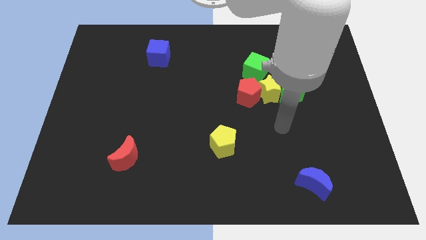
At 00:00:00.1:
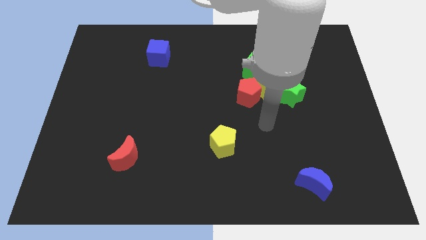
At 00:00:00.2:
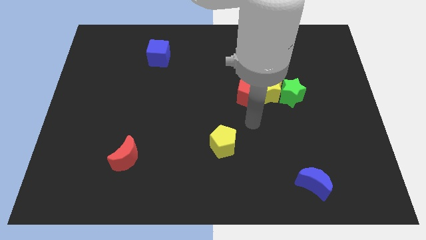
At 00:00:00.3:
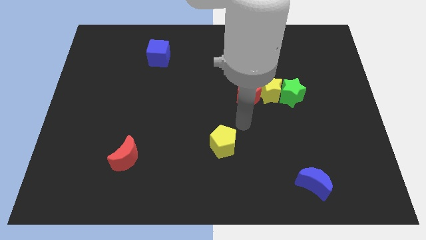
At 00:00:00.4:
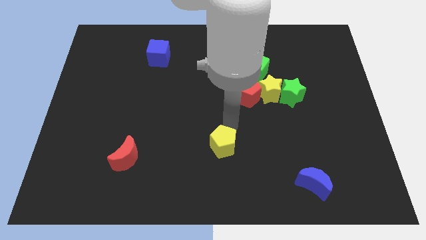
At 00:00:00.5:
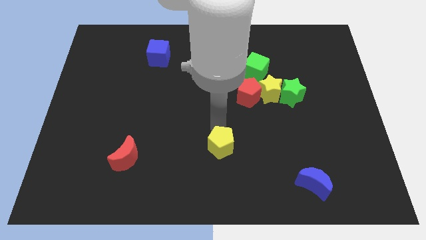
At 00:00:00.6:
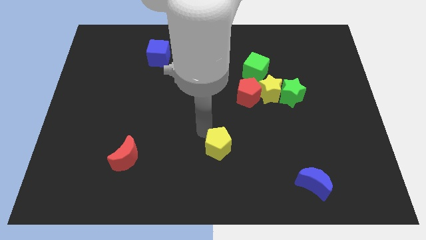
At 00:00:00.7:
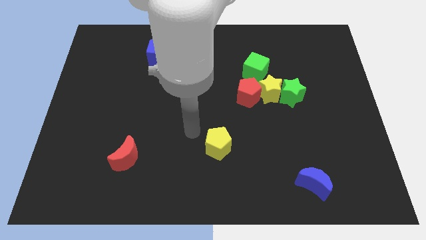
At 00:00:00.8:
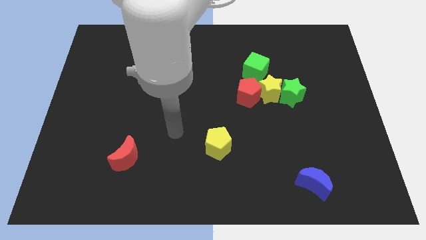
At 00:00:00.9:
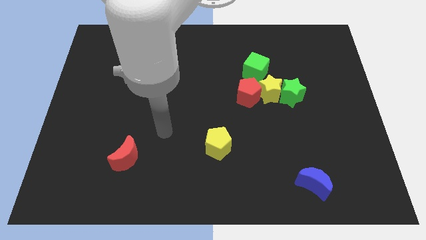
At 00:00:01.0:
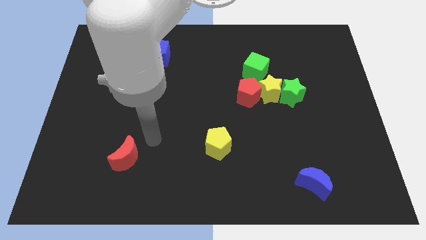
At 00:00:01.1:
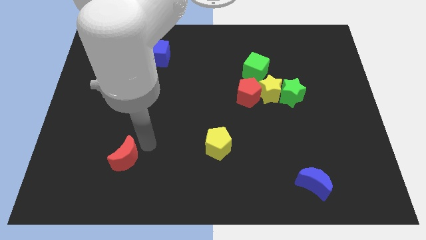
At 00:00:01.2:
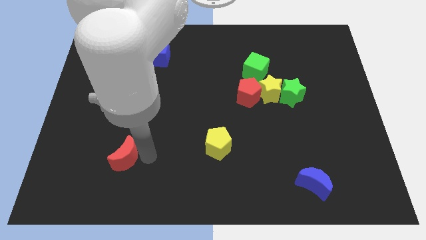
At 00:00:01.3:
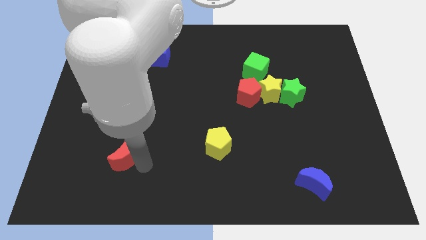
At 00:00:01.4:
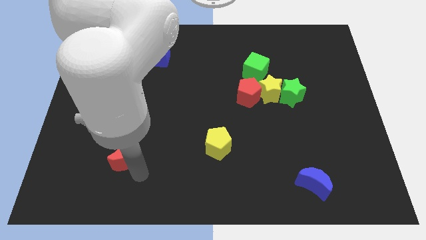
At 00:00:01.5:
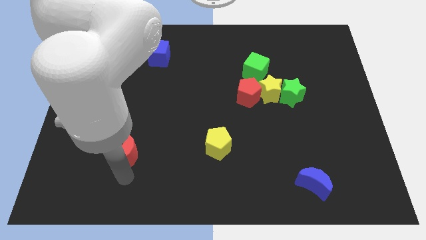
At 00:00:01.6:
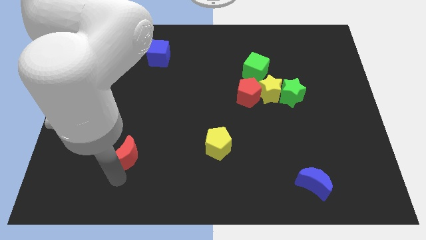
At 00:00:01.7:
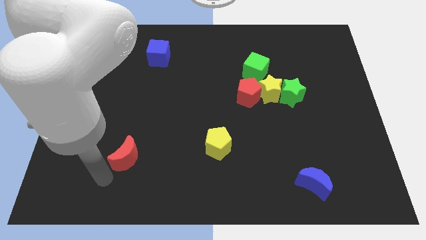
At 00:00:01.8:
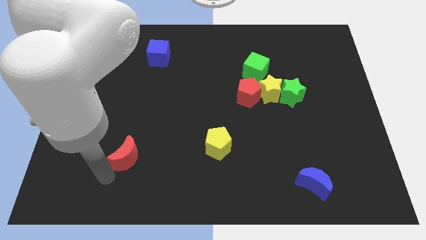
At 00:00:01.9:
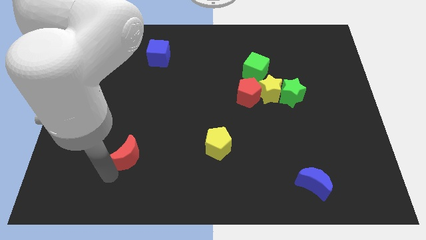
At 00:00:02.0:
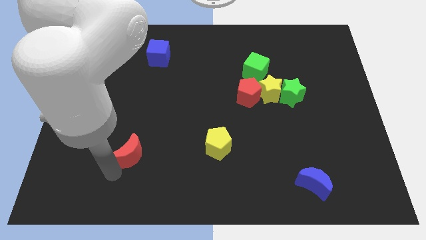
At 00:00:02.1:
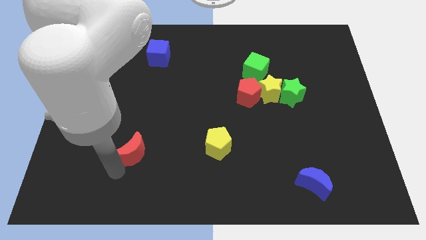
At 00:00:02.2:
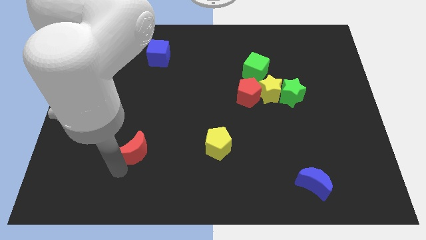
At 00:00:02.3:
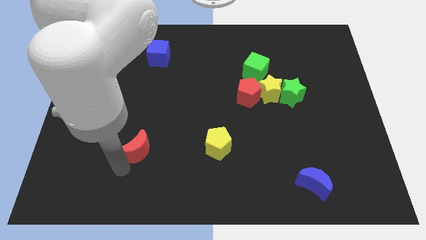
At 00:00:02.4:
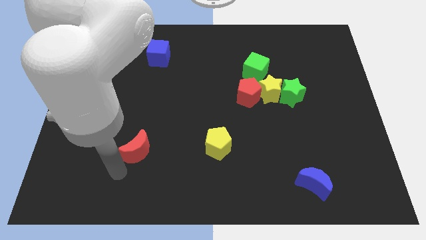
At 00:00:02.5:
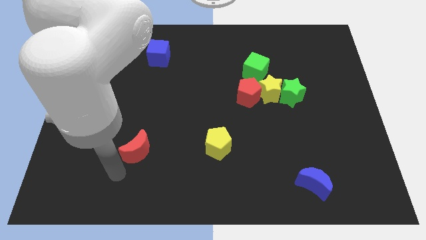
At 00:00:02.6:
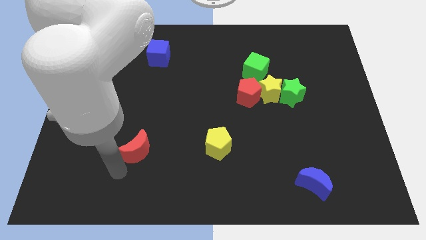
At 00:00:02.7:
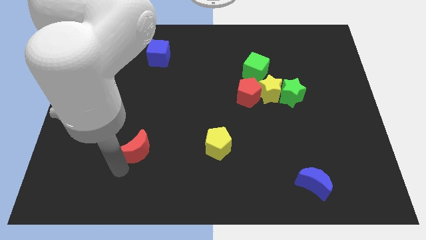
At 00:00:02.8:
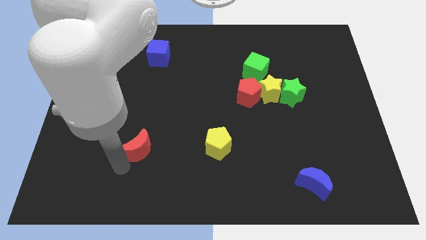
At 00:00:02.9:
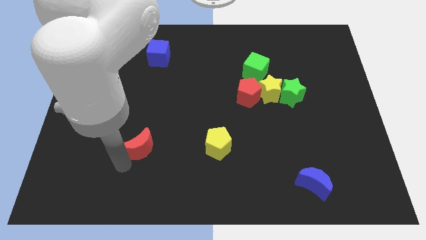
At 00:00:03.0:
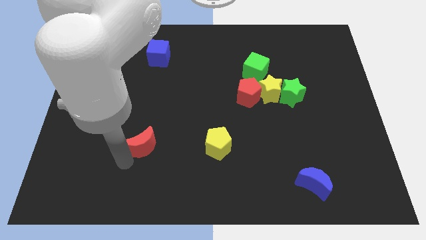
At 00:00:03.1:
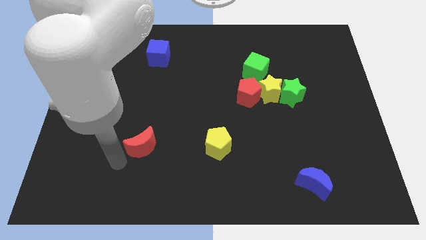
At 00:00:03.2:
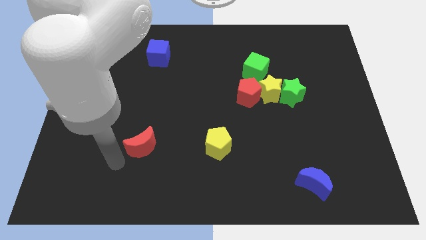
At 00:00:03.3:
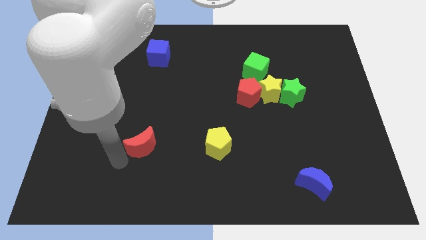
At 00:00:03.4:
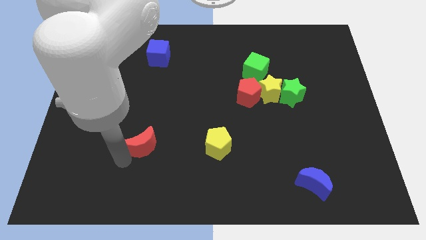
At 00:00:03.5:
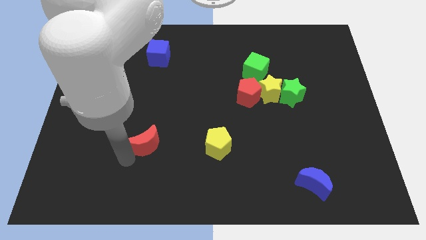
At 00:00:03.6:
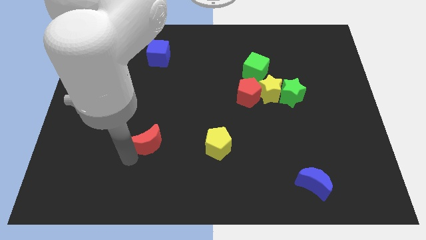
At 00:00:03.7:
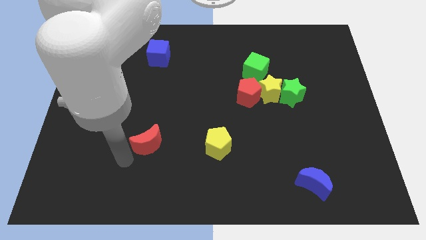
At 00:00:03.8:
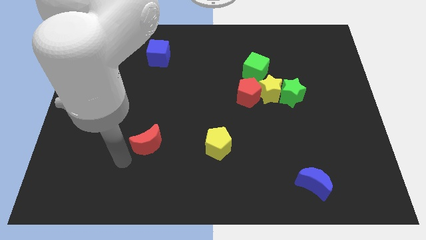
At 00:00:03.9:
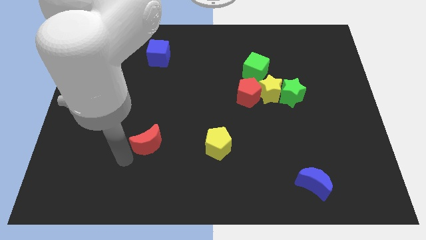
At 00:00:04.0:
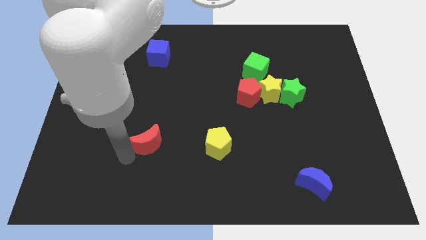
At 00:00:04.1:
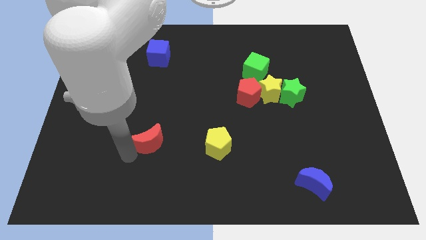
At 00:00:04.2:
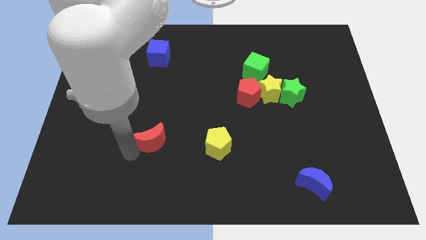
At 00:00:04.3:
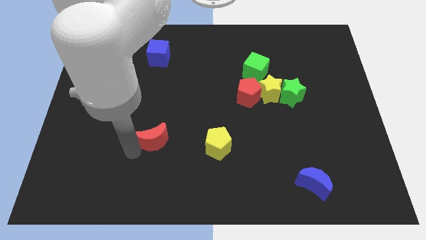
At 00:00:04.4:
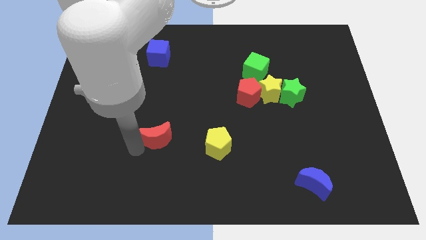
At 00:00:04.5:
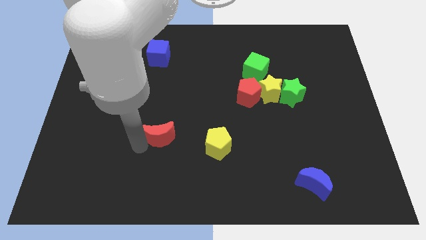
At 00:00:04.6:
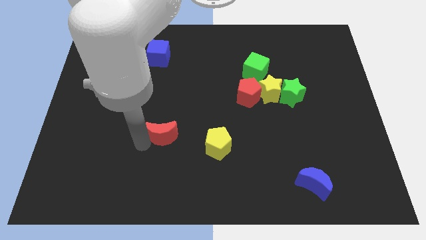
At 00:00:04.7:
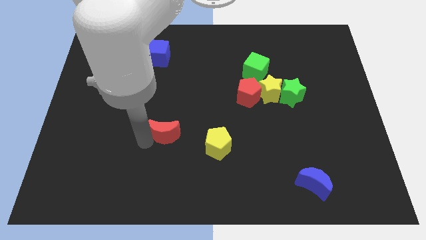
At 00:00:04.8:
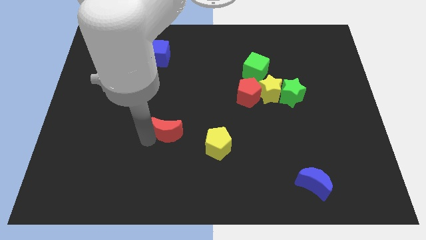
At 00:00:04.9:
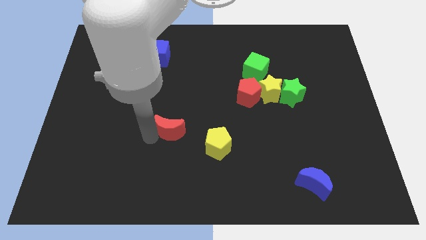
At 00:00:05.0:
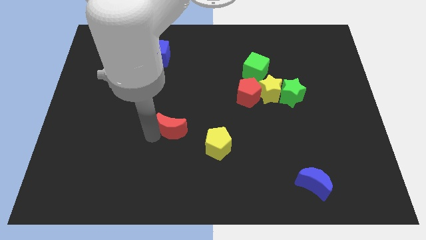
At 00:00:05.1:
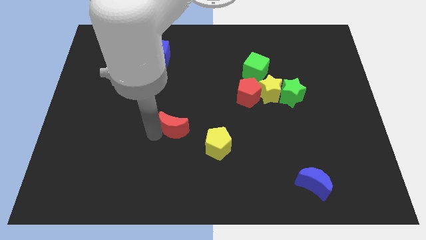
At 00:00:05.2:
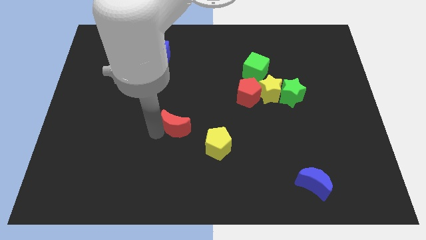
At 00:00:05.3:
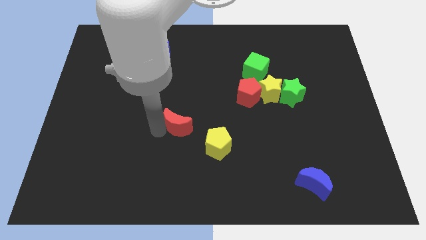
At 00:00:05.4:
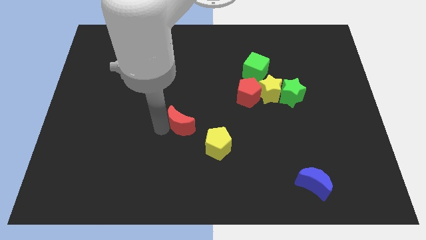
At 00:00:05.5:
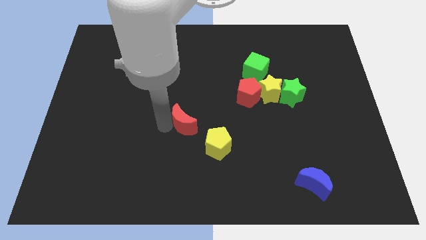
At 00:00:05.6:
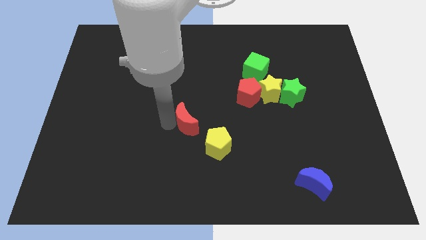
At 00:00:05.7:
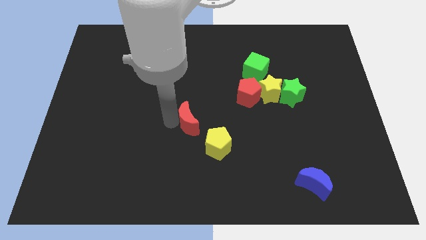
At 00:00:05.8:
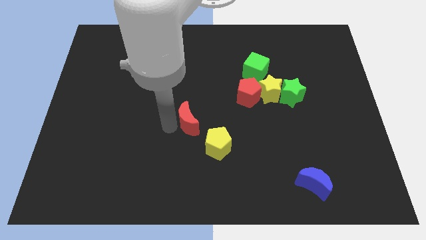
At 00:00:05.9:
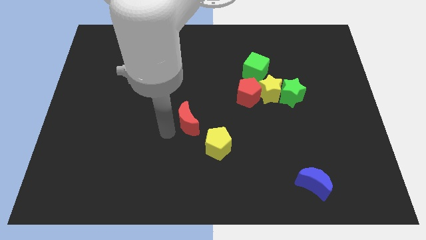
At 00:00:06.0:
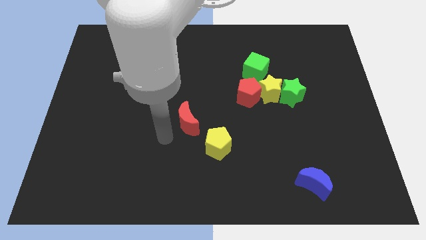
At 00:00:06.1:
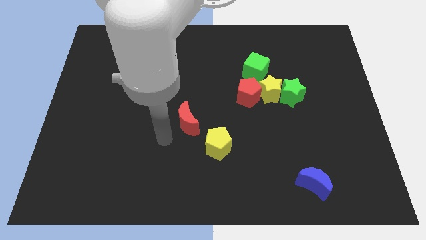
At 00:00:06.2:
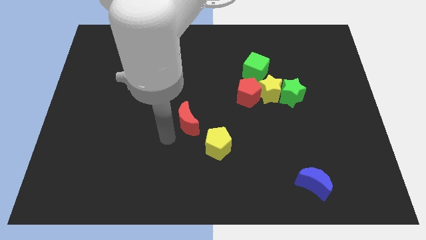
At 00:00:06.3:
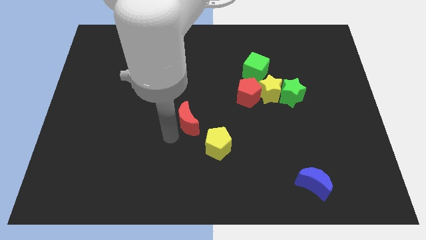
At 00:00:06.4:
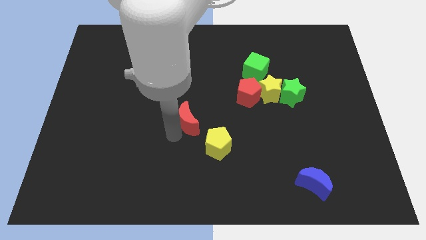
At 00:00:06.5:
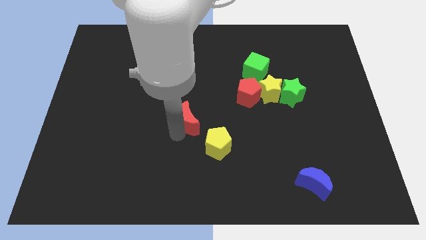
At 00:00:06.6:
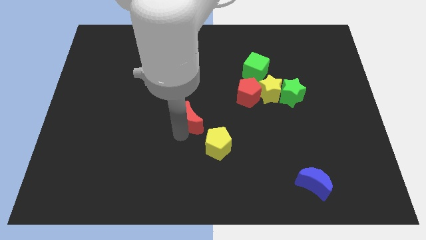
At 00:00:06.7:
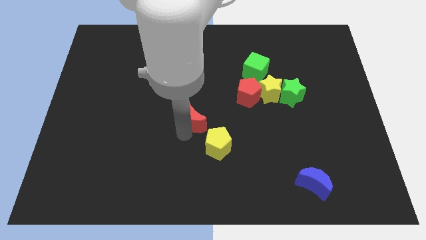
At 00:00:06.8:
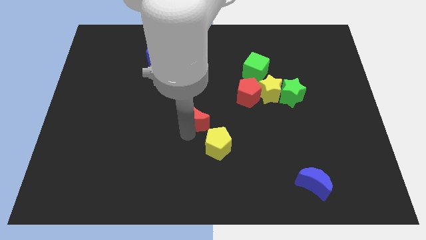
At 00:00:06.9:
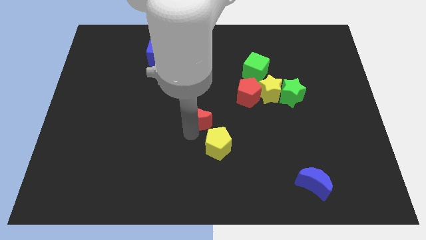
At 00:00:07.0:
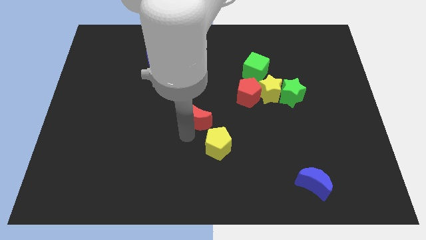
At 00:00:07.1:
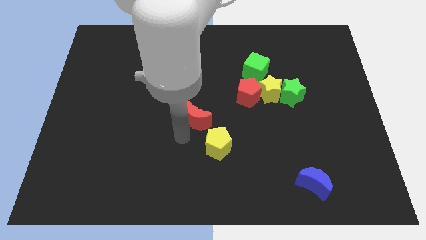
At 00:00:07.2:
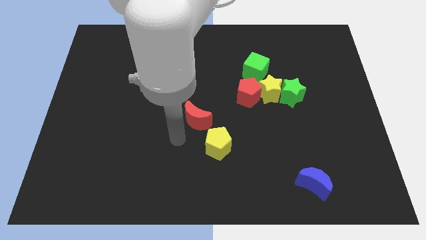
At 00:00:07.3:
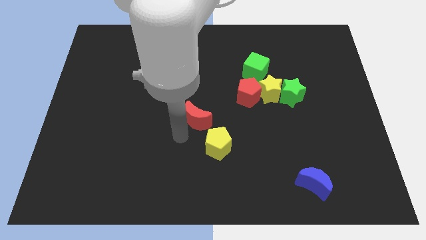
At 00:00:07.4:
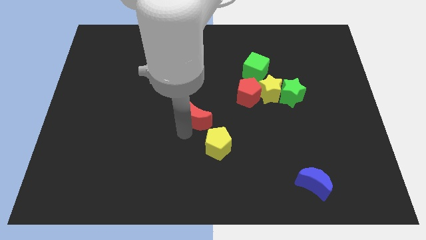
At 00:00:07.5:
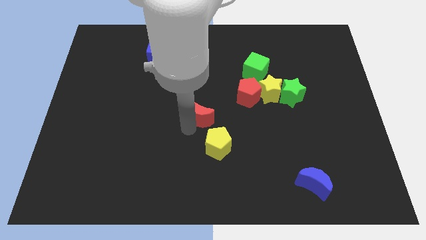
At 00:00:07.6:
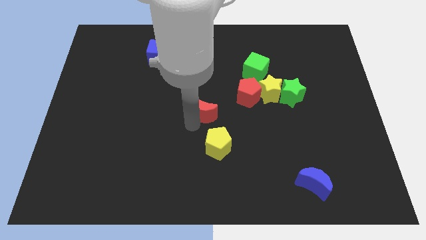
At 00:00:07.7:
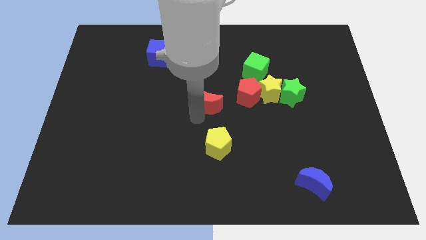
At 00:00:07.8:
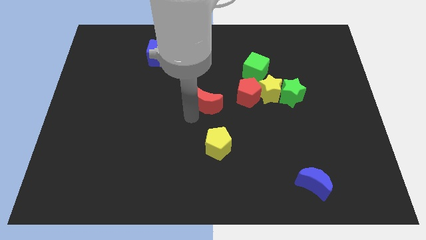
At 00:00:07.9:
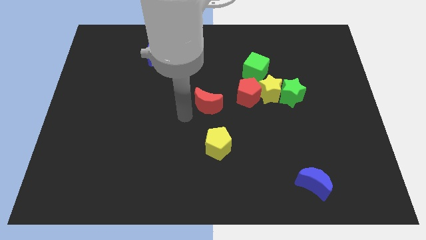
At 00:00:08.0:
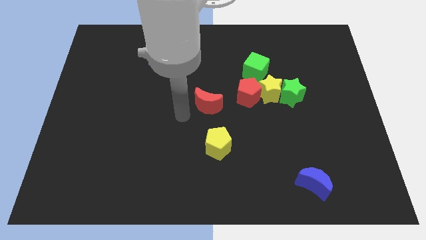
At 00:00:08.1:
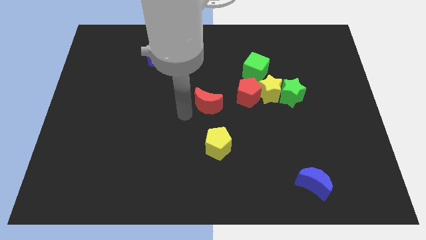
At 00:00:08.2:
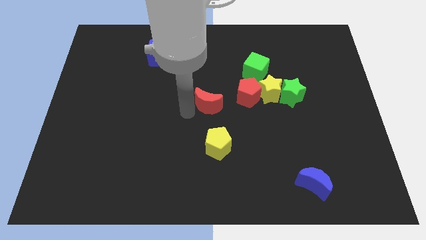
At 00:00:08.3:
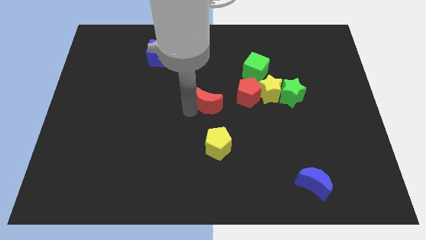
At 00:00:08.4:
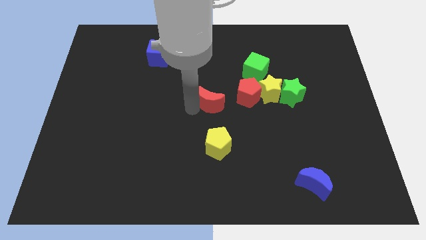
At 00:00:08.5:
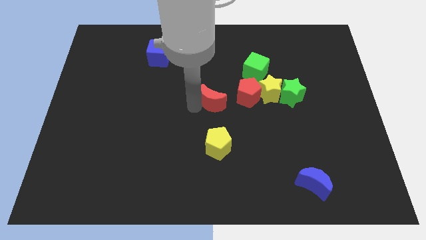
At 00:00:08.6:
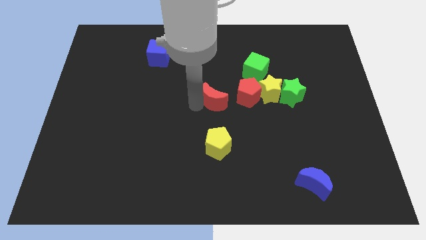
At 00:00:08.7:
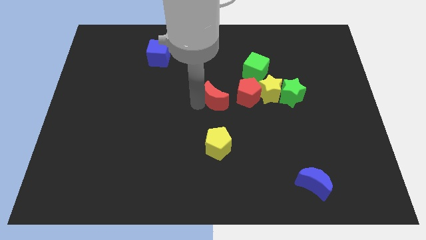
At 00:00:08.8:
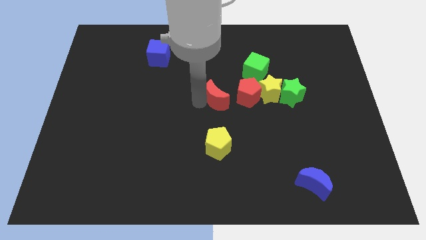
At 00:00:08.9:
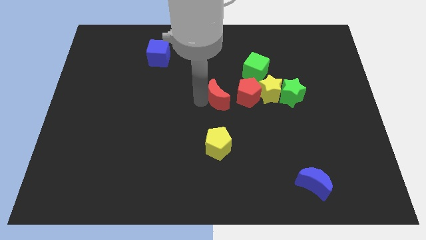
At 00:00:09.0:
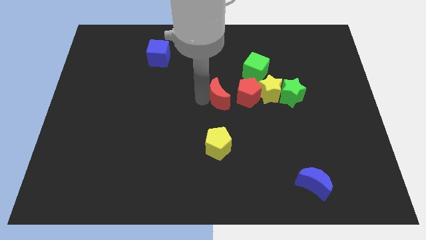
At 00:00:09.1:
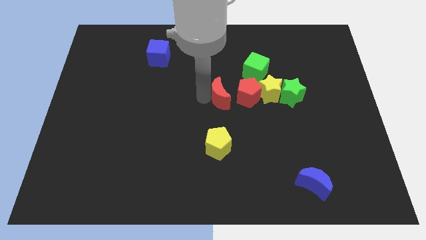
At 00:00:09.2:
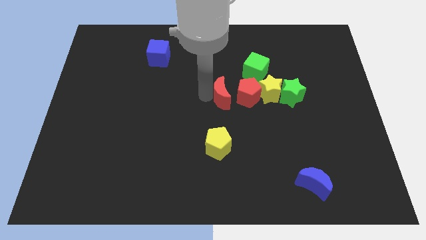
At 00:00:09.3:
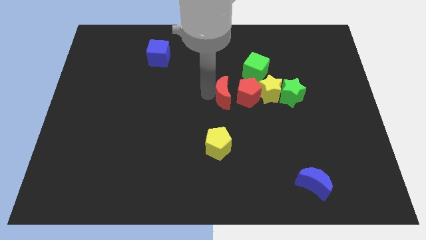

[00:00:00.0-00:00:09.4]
push the red moon to the left of the green star
